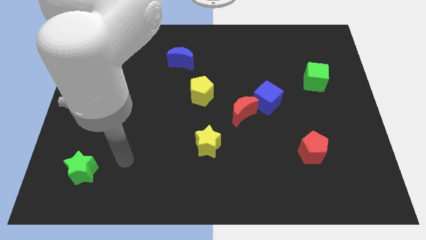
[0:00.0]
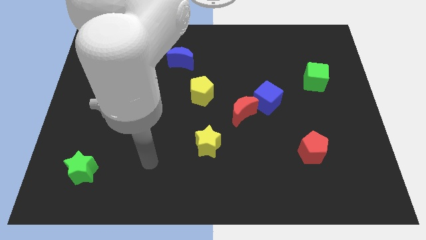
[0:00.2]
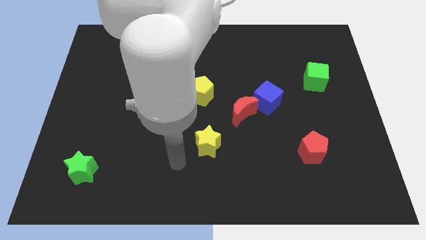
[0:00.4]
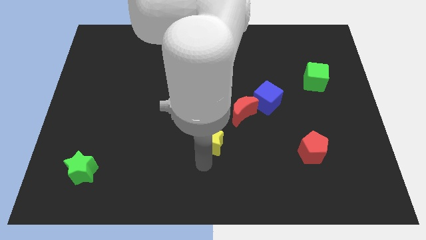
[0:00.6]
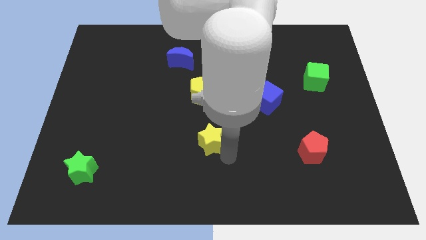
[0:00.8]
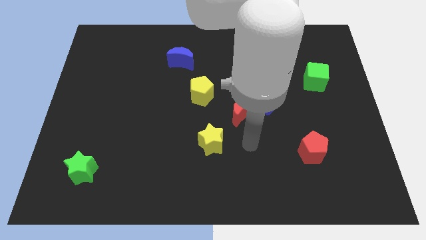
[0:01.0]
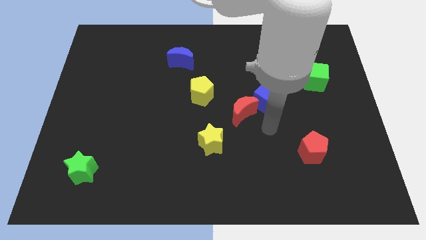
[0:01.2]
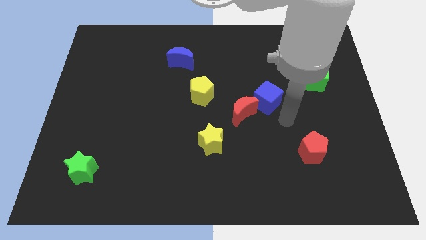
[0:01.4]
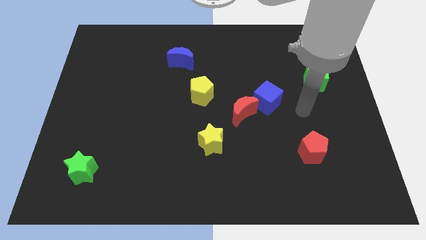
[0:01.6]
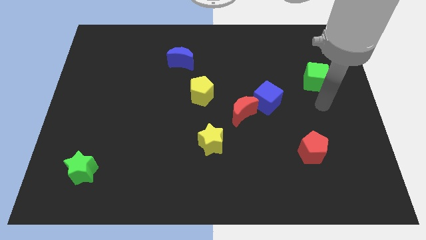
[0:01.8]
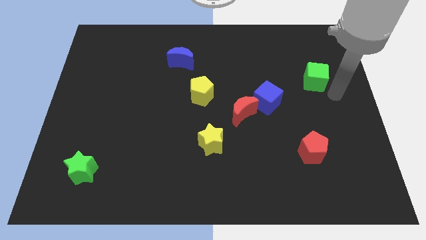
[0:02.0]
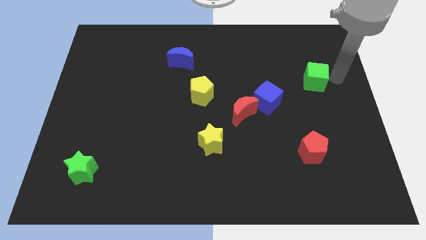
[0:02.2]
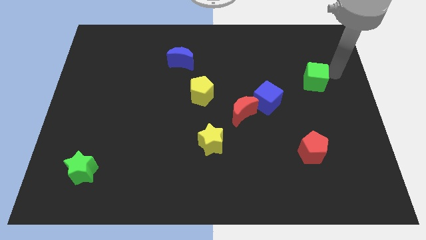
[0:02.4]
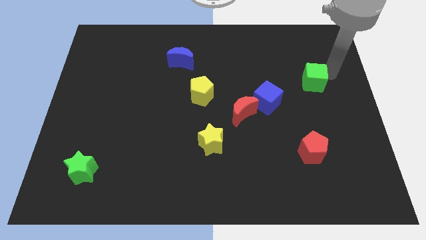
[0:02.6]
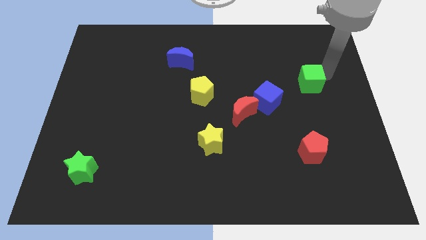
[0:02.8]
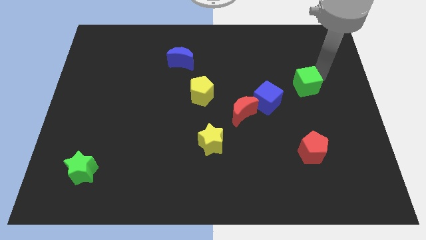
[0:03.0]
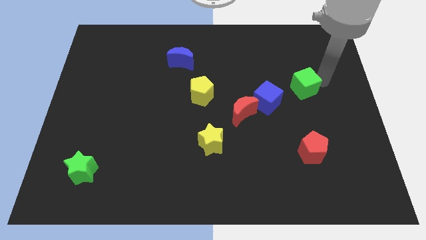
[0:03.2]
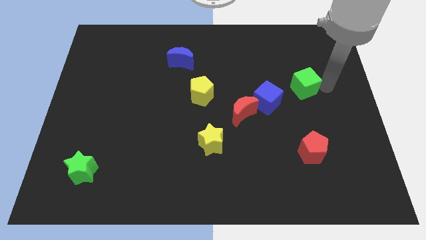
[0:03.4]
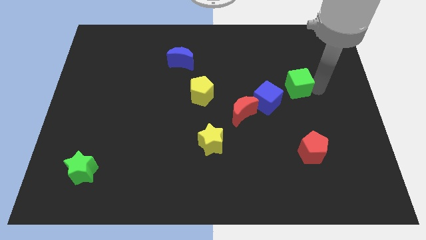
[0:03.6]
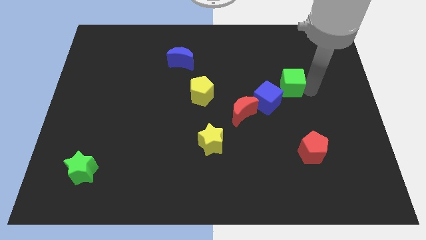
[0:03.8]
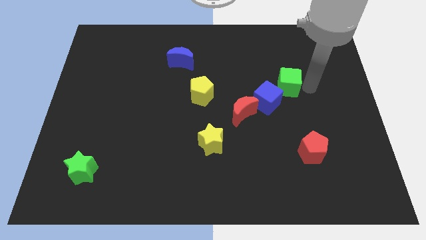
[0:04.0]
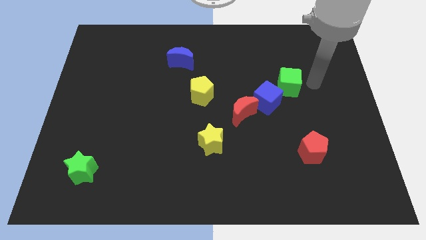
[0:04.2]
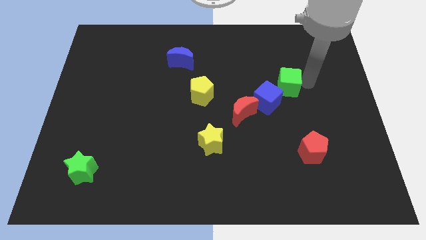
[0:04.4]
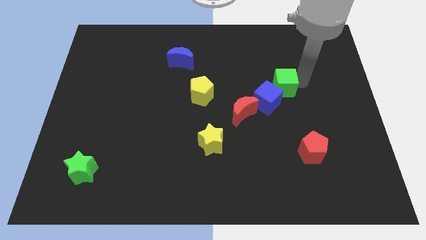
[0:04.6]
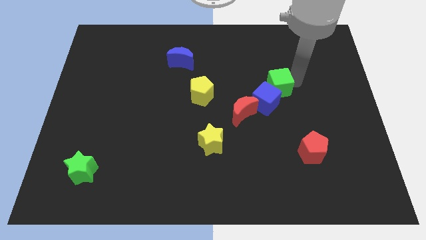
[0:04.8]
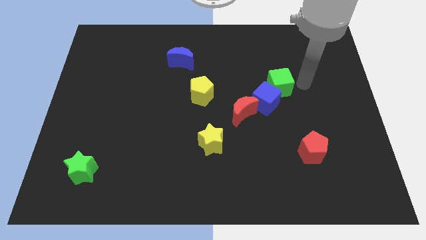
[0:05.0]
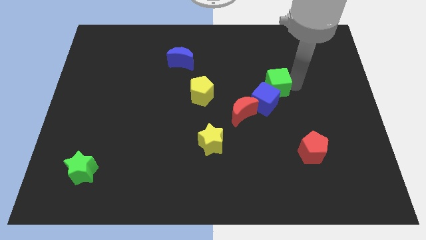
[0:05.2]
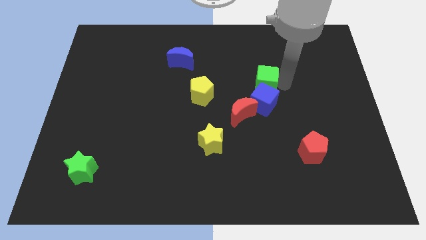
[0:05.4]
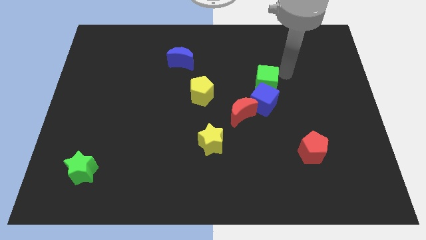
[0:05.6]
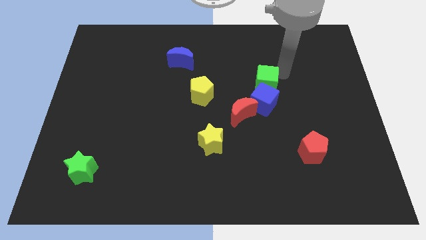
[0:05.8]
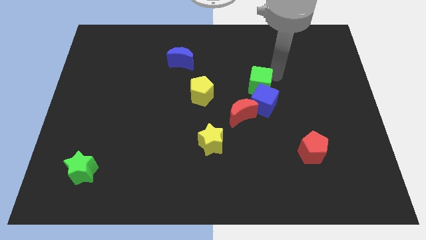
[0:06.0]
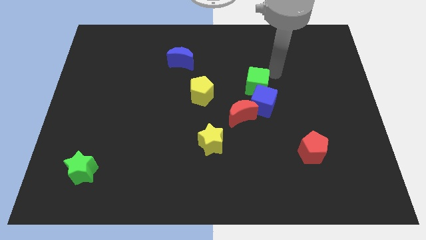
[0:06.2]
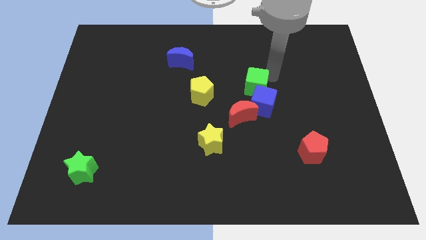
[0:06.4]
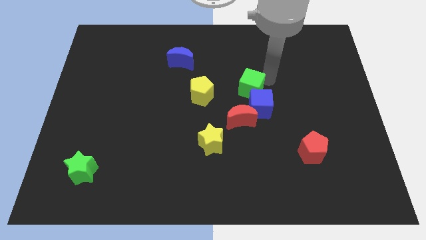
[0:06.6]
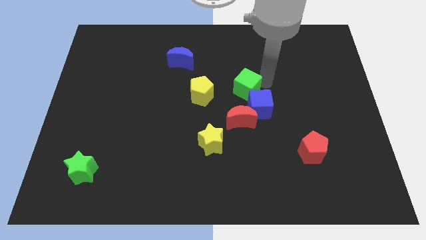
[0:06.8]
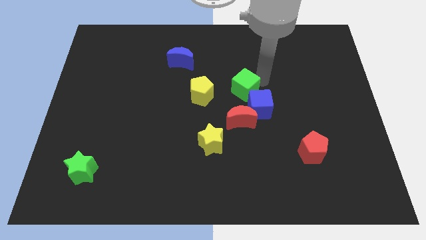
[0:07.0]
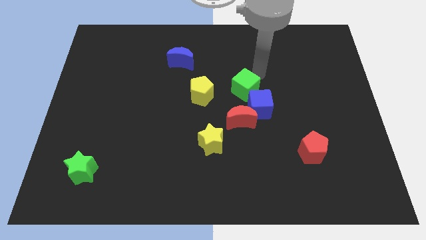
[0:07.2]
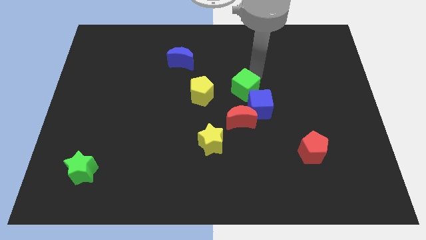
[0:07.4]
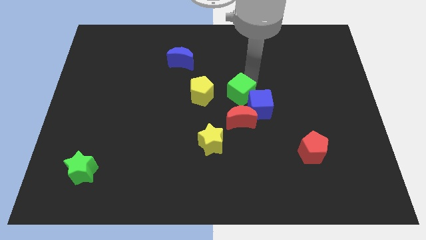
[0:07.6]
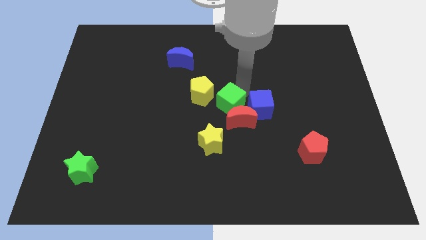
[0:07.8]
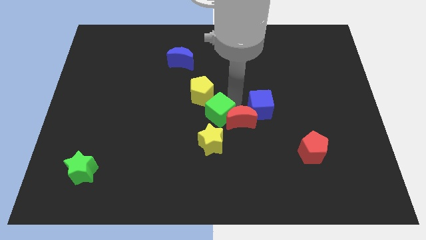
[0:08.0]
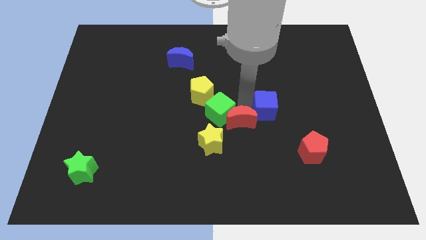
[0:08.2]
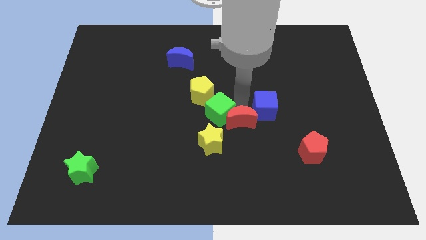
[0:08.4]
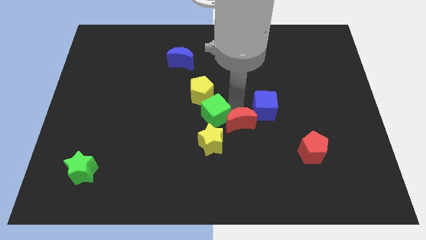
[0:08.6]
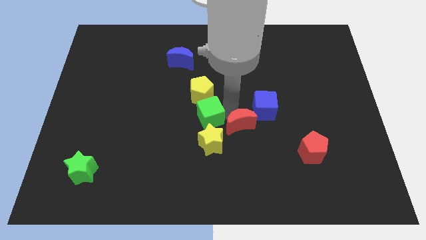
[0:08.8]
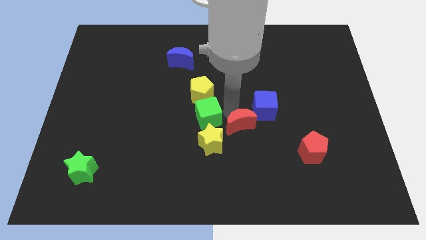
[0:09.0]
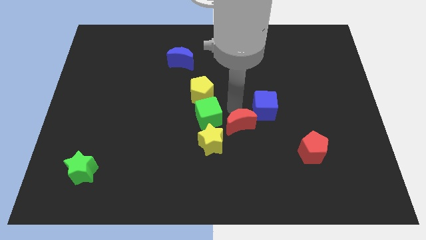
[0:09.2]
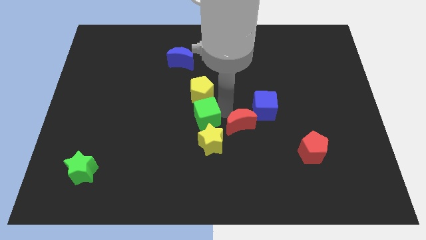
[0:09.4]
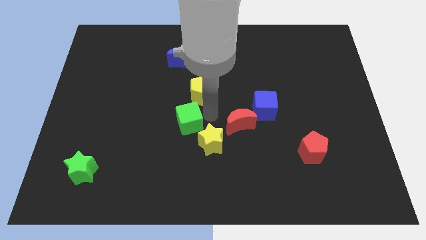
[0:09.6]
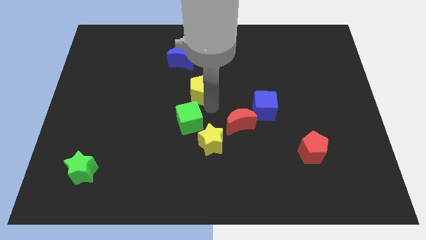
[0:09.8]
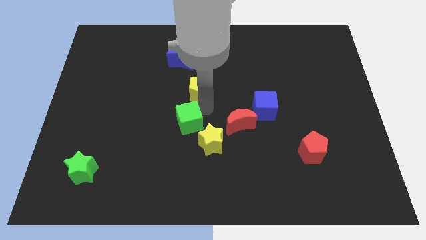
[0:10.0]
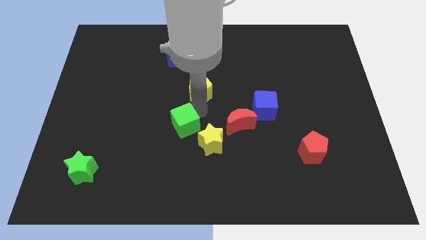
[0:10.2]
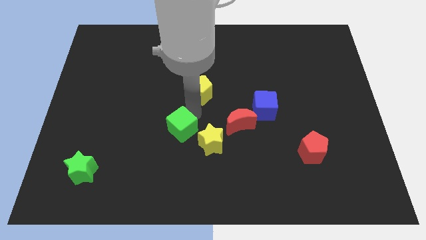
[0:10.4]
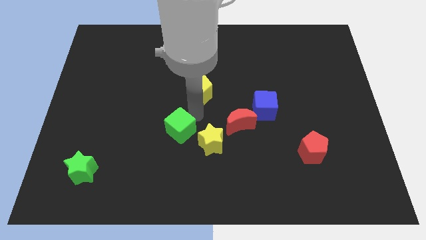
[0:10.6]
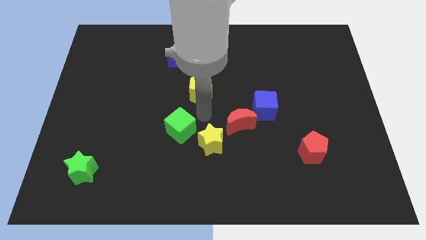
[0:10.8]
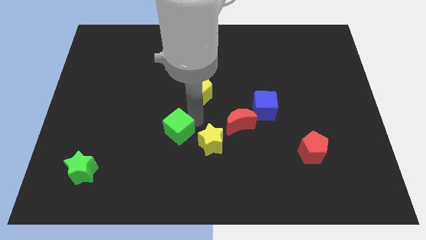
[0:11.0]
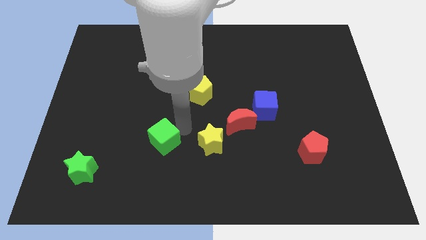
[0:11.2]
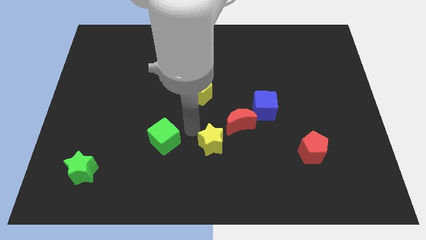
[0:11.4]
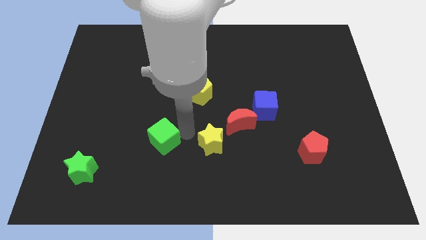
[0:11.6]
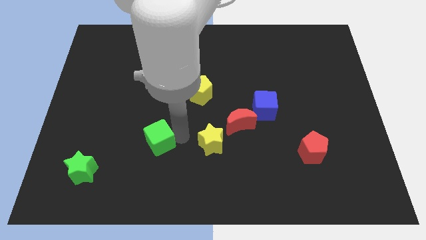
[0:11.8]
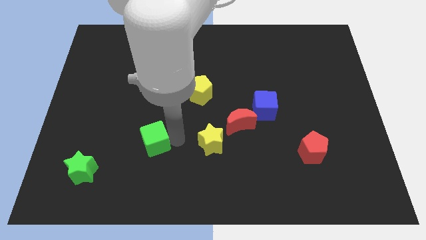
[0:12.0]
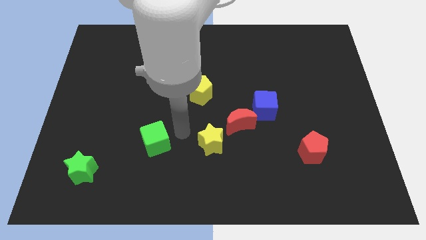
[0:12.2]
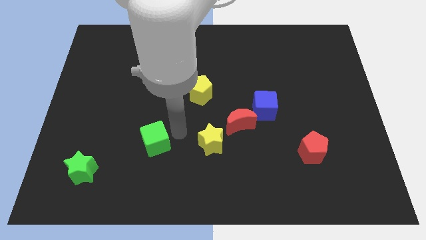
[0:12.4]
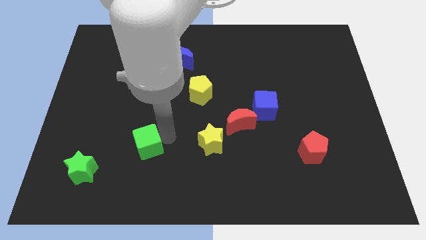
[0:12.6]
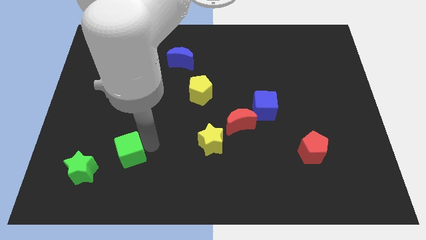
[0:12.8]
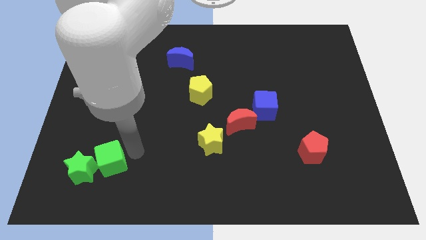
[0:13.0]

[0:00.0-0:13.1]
move the green cube close to the green star

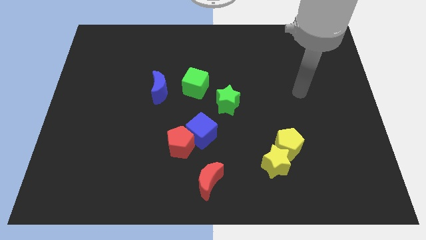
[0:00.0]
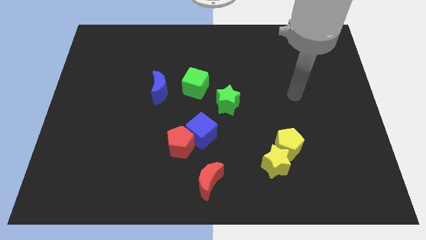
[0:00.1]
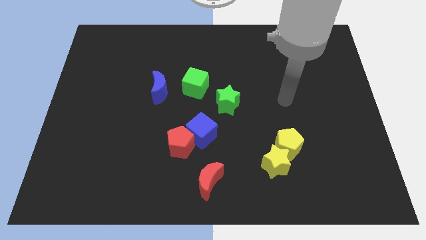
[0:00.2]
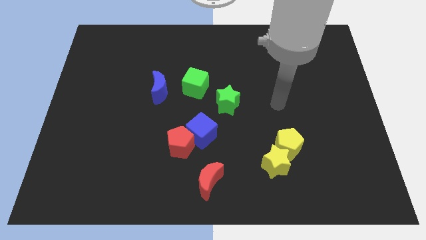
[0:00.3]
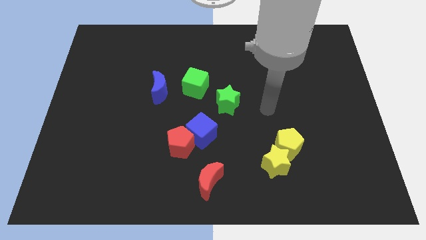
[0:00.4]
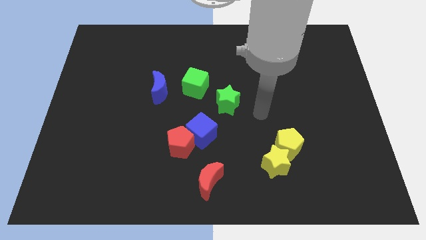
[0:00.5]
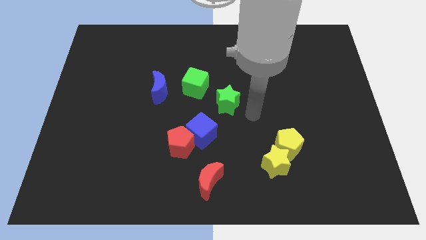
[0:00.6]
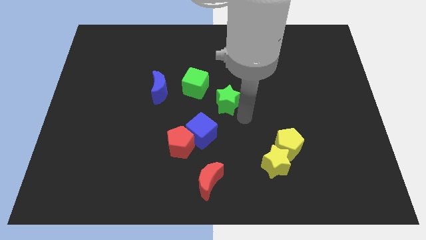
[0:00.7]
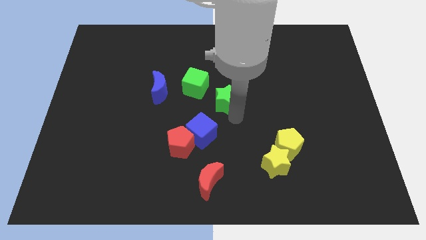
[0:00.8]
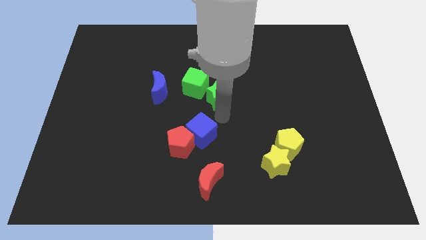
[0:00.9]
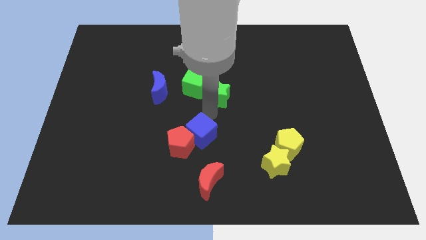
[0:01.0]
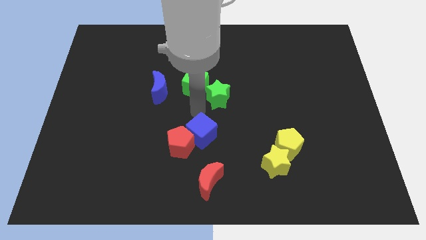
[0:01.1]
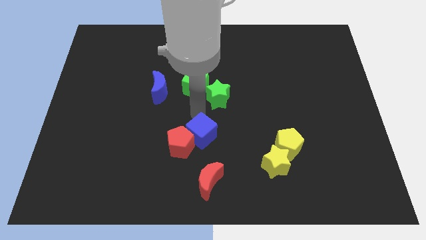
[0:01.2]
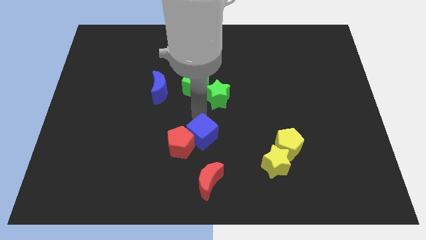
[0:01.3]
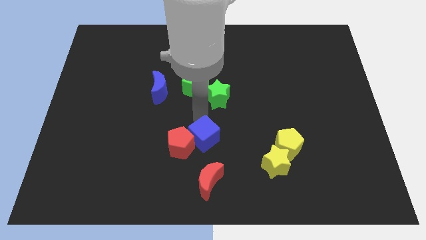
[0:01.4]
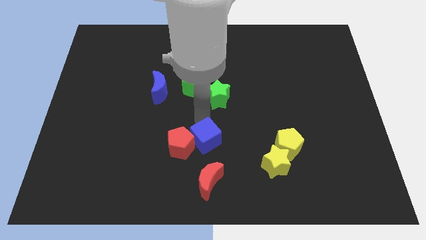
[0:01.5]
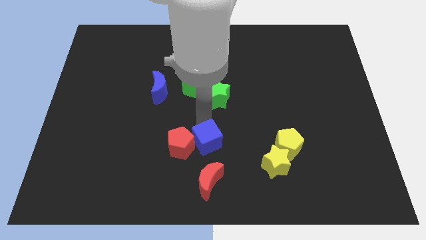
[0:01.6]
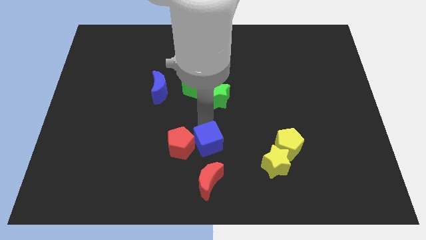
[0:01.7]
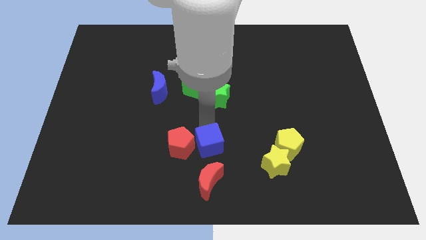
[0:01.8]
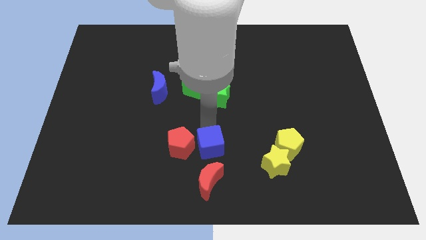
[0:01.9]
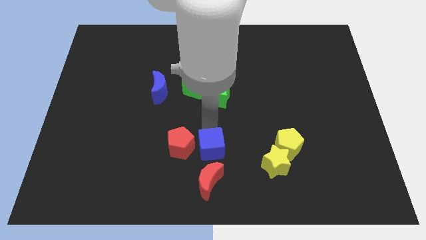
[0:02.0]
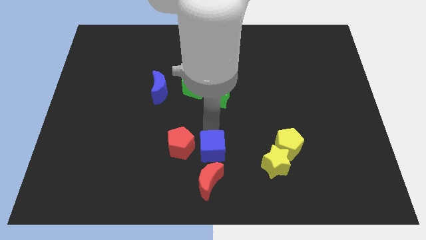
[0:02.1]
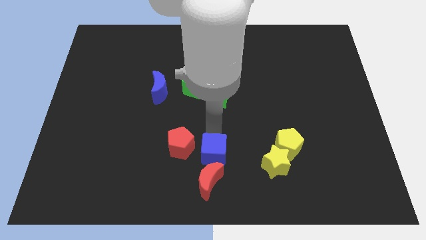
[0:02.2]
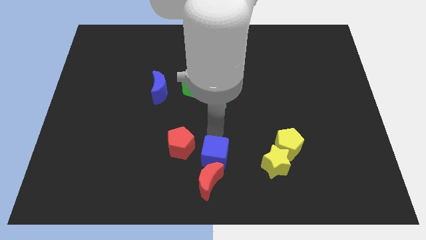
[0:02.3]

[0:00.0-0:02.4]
put the blue cube to the red moon
